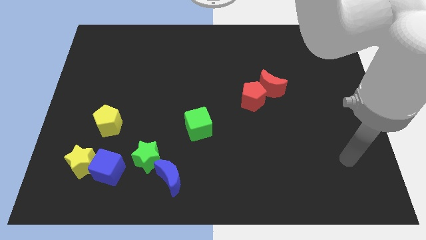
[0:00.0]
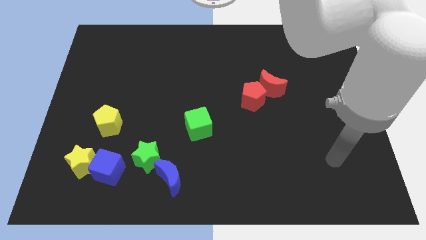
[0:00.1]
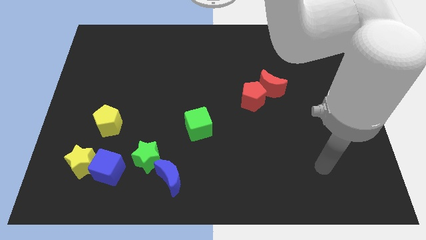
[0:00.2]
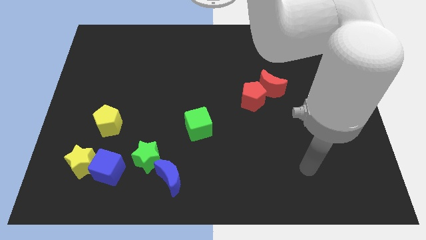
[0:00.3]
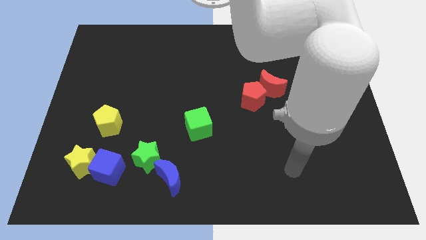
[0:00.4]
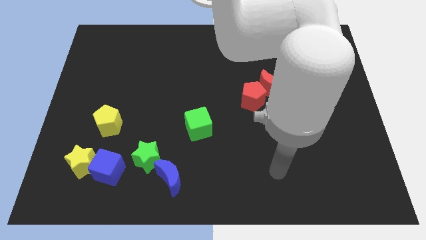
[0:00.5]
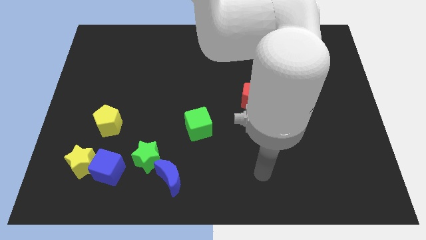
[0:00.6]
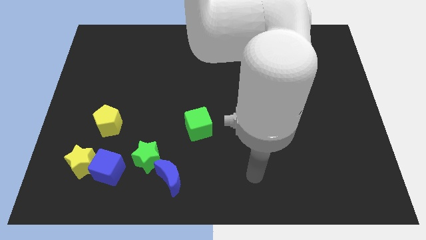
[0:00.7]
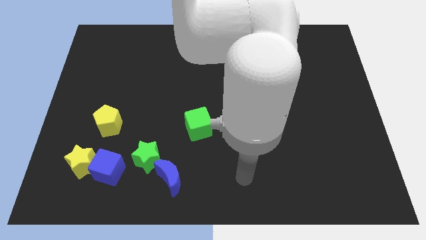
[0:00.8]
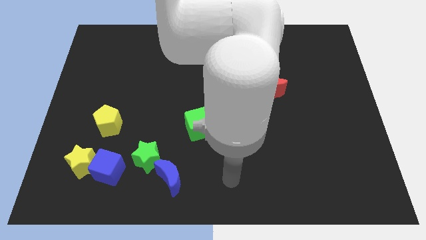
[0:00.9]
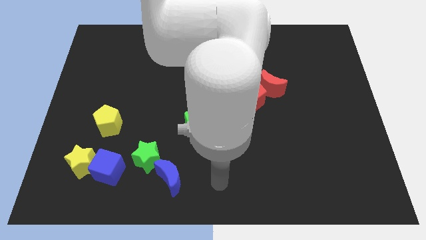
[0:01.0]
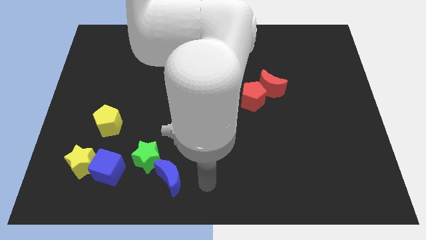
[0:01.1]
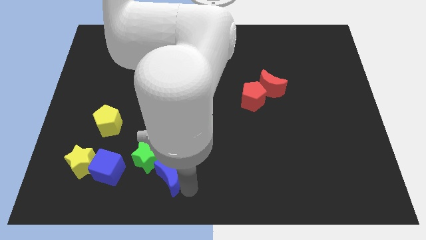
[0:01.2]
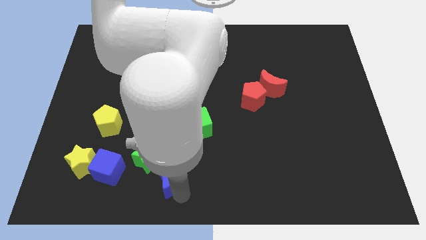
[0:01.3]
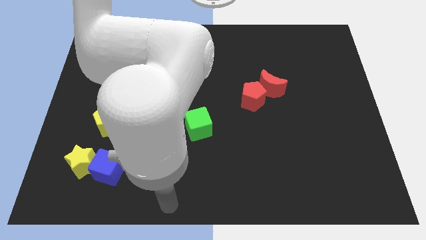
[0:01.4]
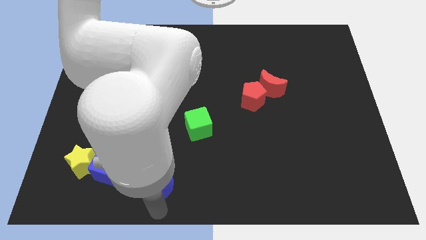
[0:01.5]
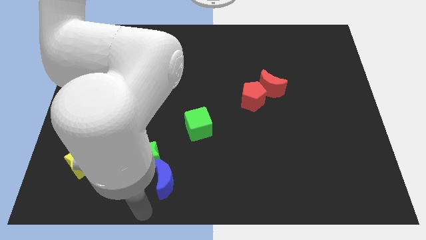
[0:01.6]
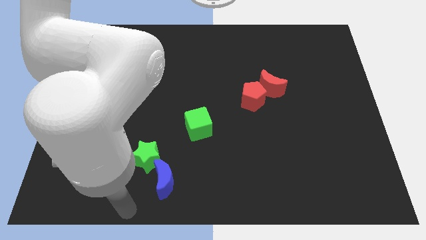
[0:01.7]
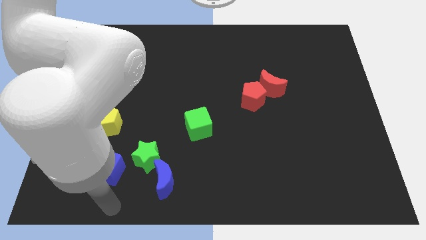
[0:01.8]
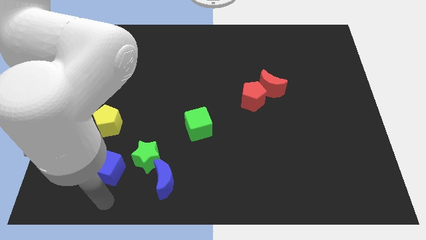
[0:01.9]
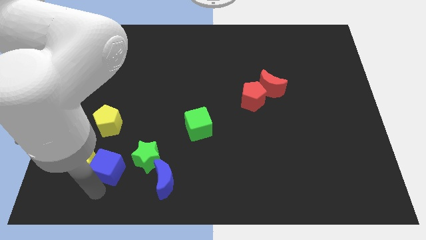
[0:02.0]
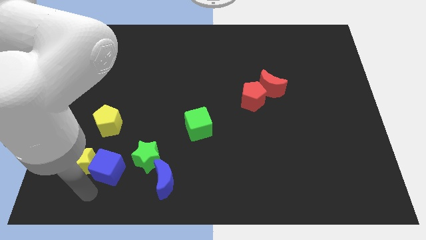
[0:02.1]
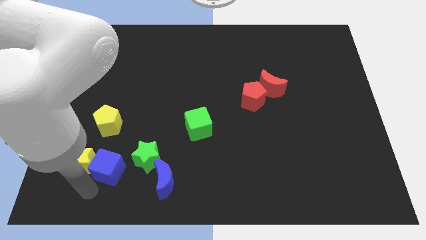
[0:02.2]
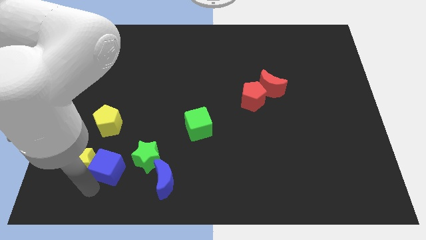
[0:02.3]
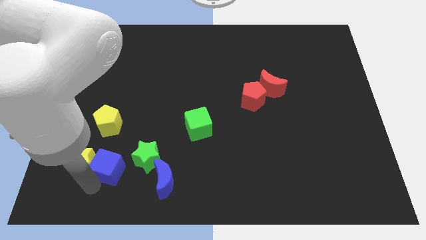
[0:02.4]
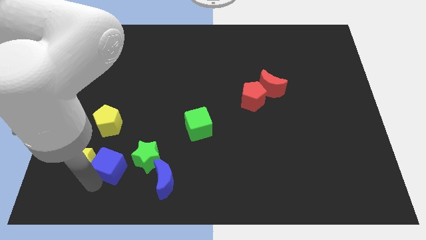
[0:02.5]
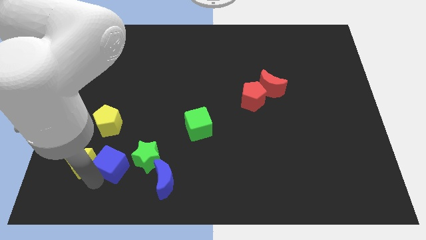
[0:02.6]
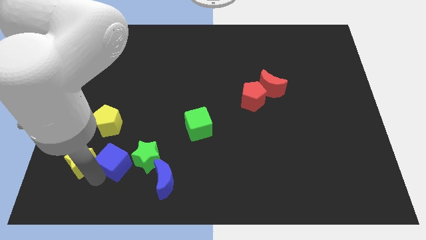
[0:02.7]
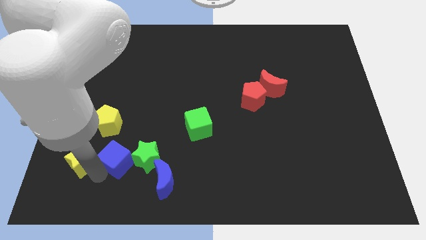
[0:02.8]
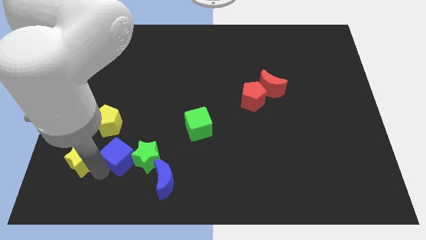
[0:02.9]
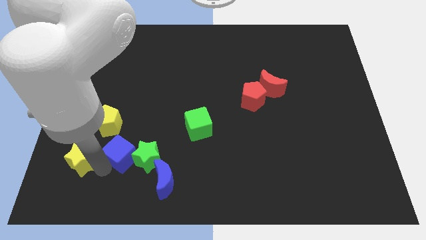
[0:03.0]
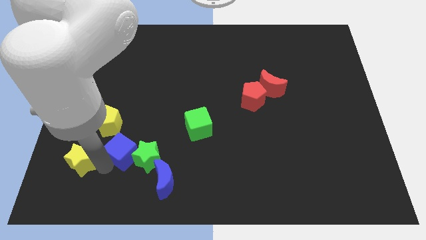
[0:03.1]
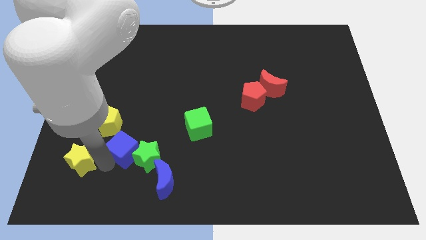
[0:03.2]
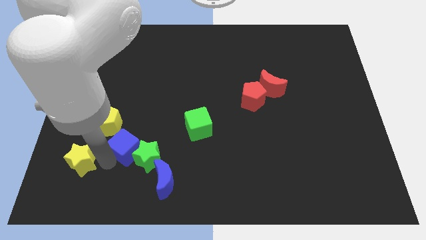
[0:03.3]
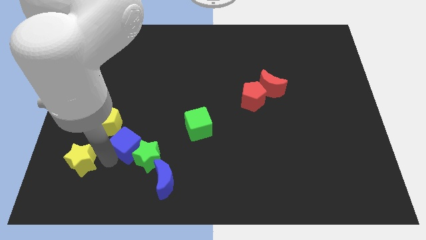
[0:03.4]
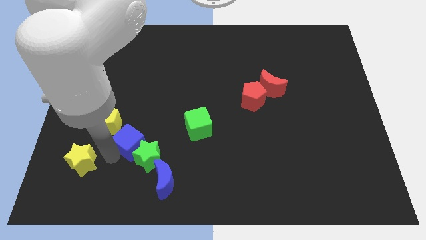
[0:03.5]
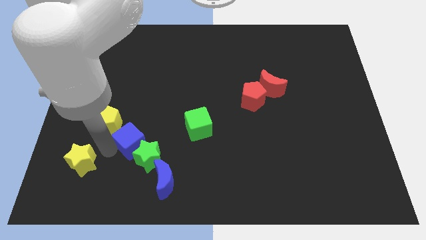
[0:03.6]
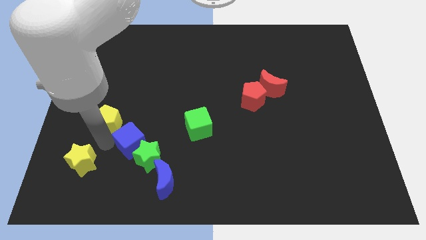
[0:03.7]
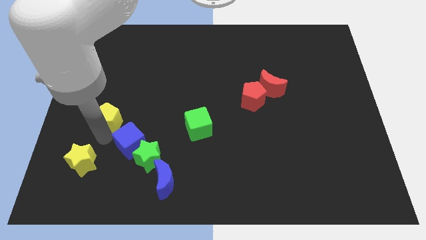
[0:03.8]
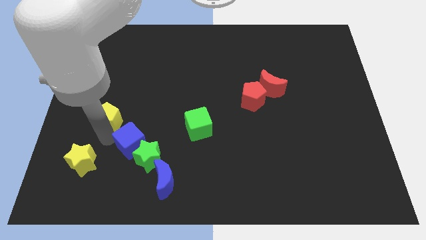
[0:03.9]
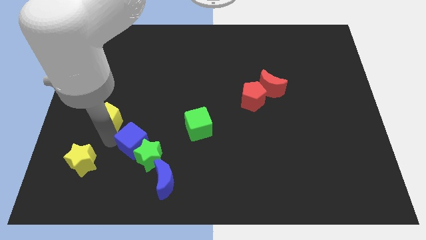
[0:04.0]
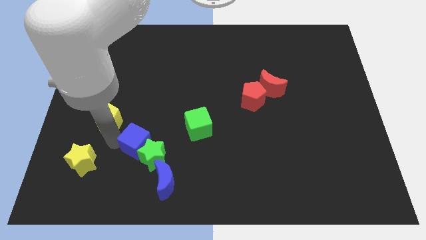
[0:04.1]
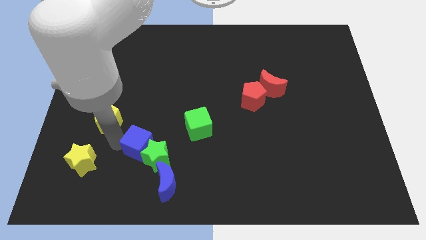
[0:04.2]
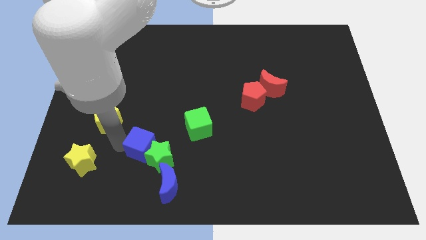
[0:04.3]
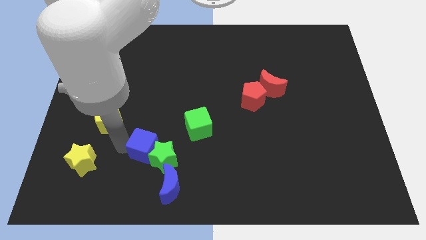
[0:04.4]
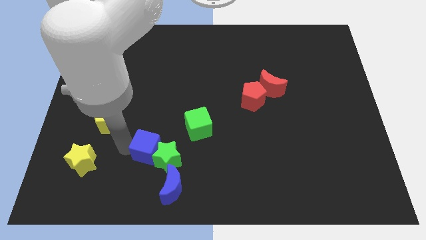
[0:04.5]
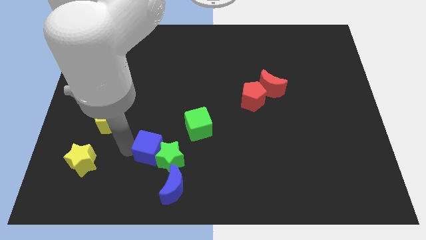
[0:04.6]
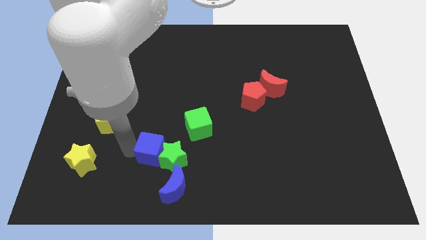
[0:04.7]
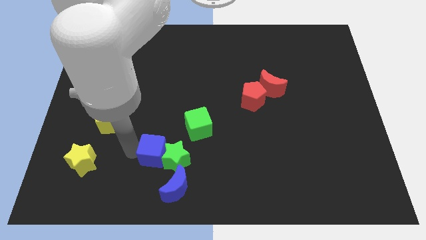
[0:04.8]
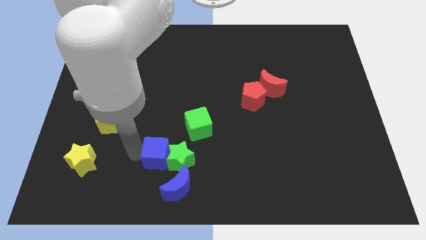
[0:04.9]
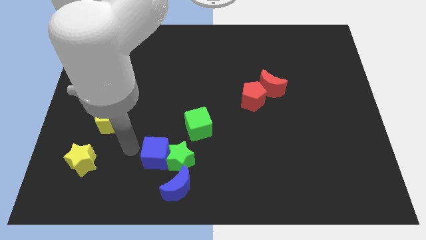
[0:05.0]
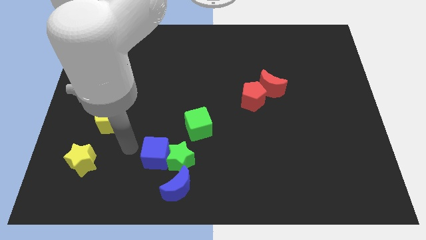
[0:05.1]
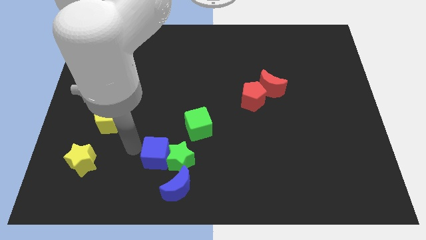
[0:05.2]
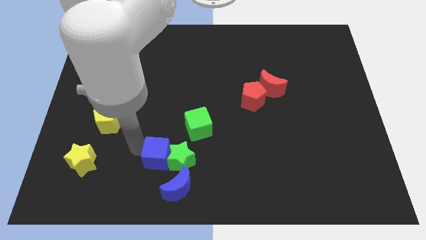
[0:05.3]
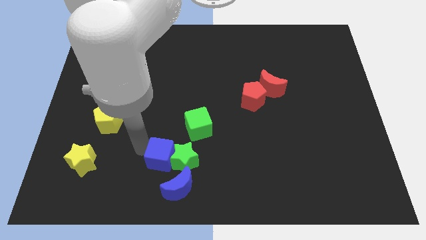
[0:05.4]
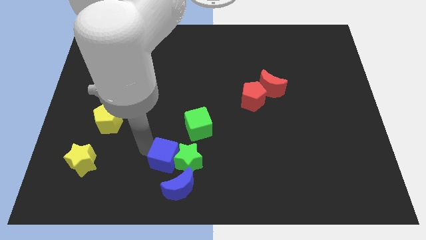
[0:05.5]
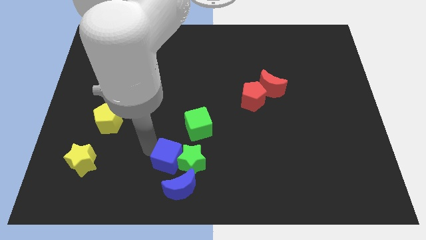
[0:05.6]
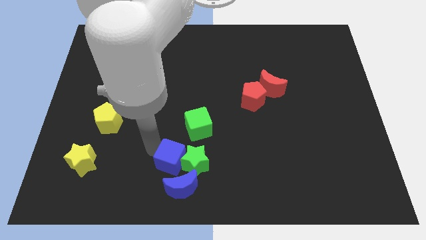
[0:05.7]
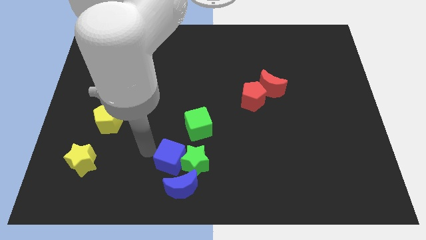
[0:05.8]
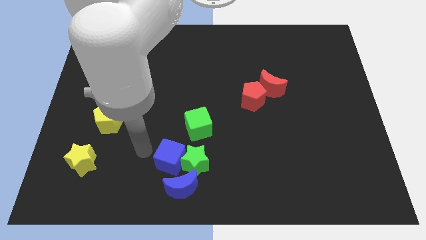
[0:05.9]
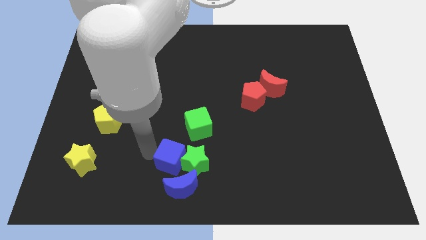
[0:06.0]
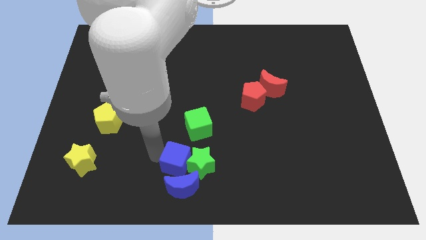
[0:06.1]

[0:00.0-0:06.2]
slide the blue cube below the green cube

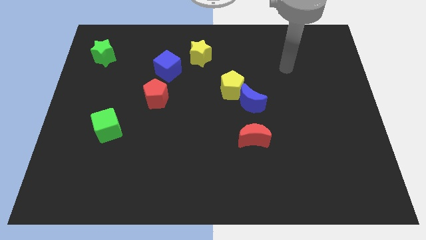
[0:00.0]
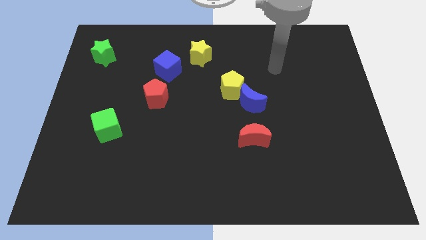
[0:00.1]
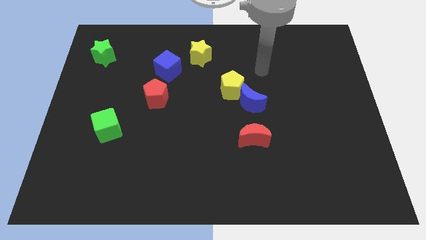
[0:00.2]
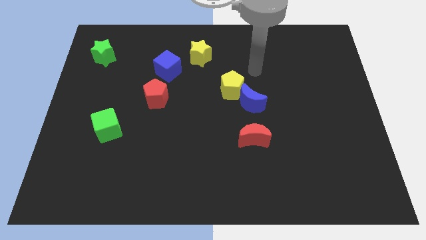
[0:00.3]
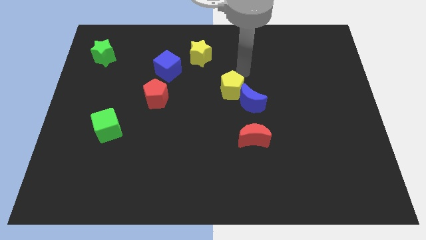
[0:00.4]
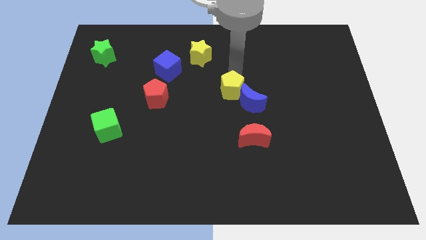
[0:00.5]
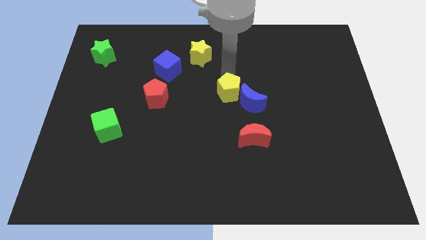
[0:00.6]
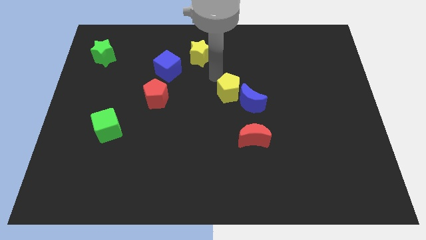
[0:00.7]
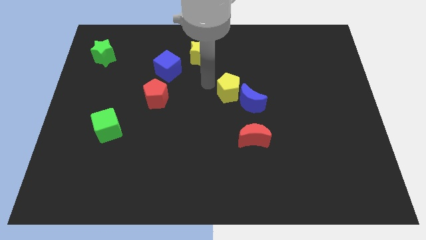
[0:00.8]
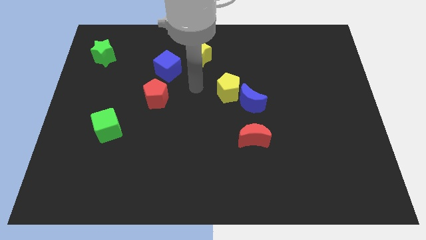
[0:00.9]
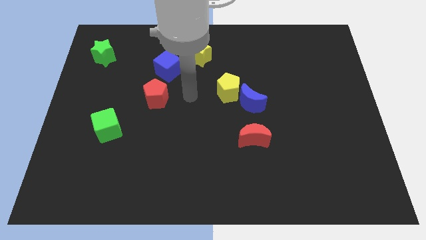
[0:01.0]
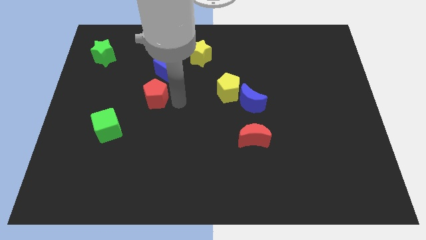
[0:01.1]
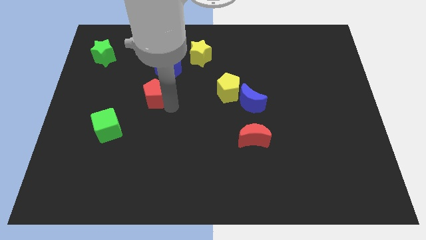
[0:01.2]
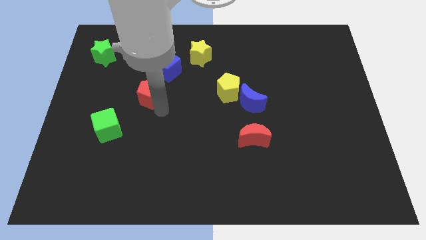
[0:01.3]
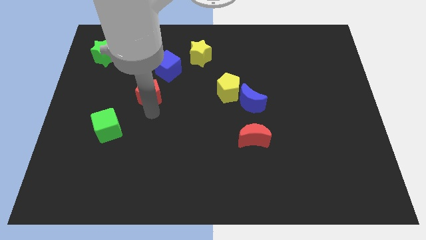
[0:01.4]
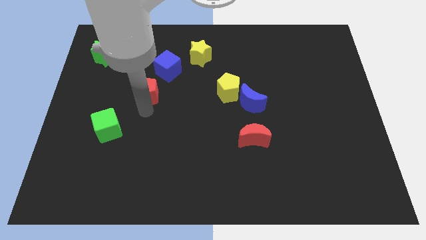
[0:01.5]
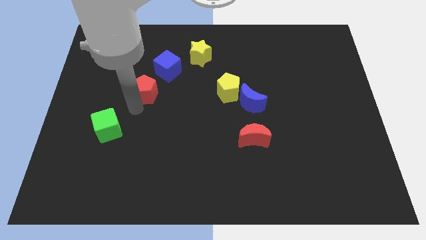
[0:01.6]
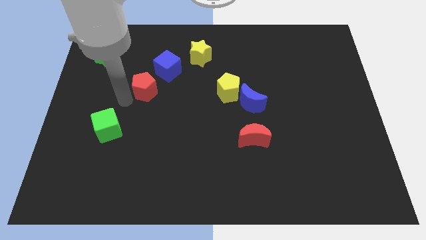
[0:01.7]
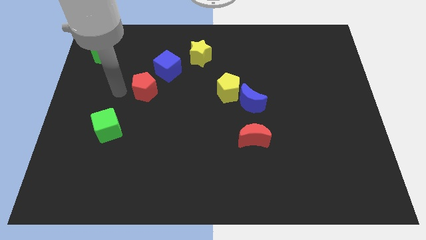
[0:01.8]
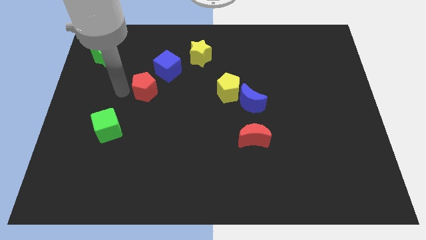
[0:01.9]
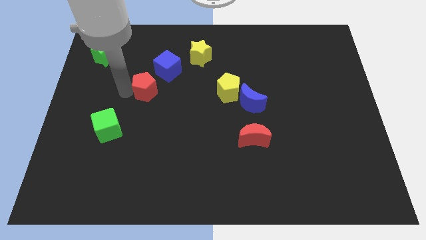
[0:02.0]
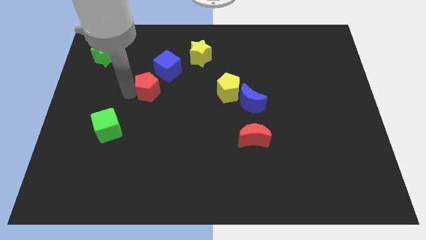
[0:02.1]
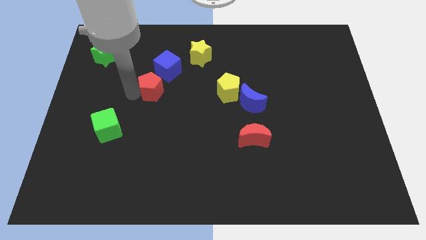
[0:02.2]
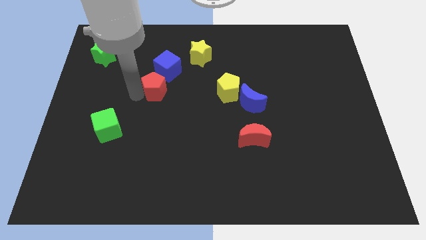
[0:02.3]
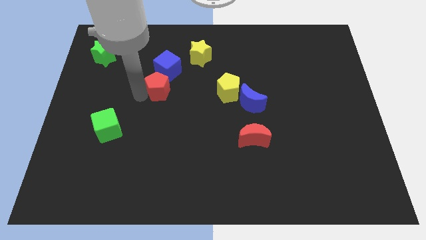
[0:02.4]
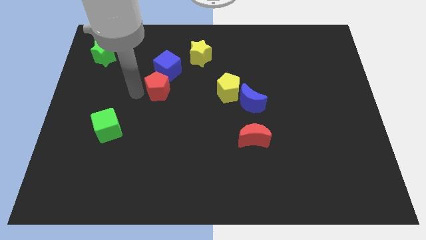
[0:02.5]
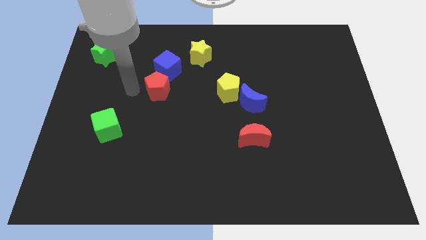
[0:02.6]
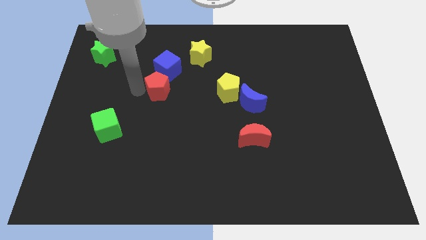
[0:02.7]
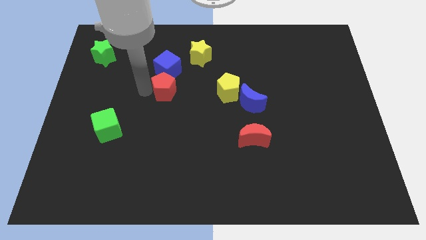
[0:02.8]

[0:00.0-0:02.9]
slide the red pentagon left of the yellow pentagon
